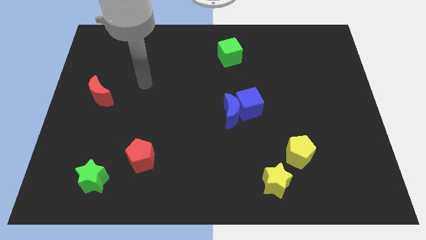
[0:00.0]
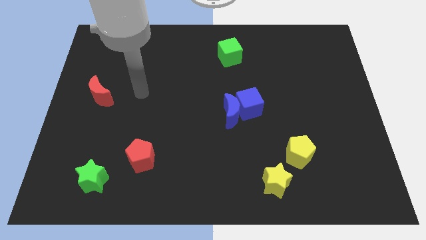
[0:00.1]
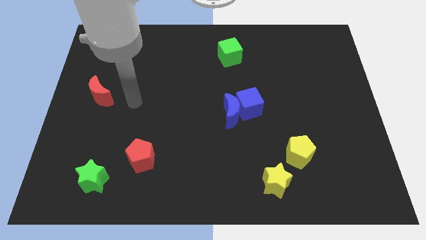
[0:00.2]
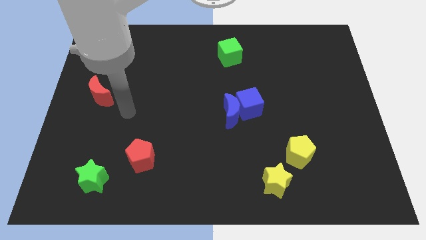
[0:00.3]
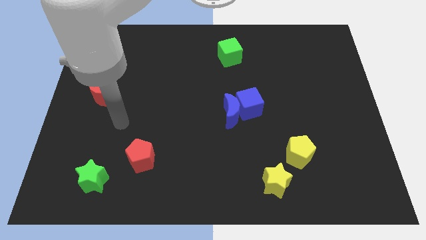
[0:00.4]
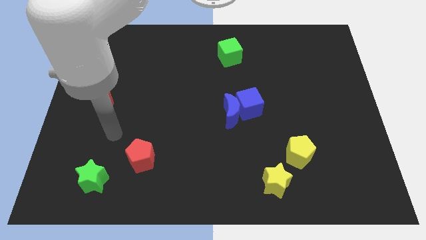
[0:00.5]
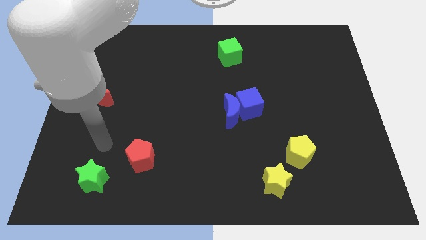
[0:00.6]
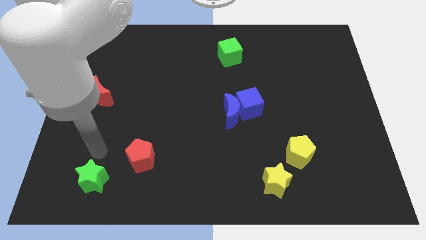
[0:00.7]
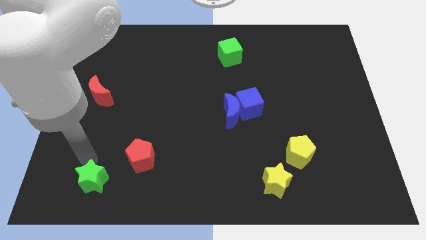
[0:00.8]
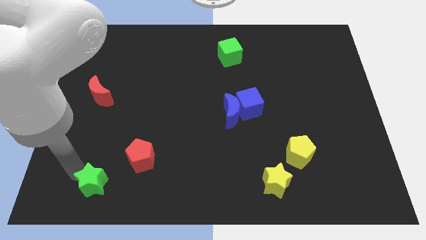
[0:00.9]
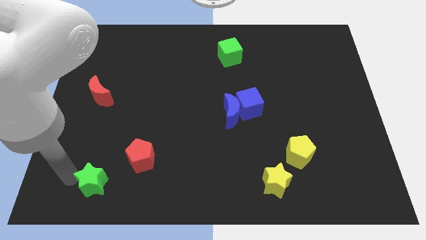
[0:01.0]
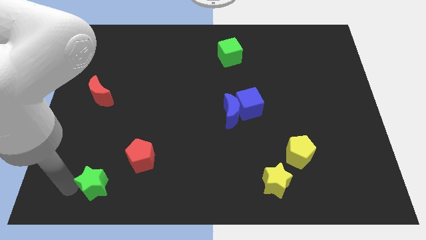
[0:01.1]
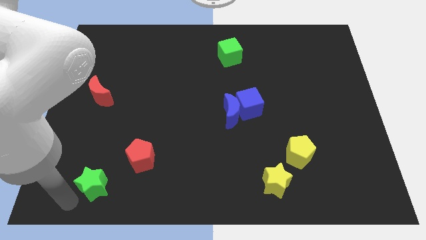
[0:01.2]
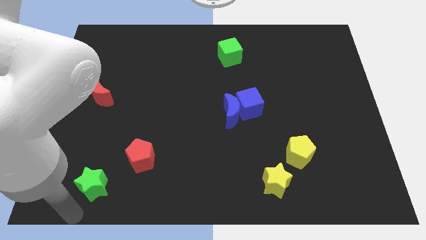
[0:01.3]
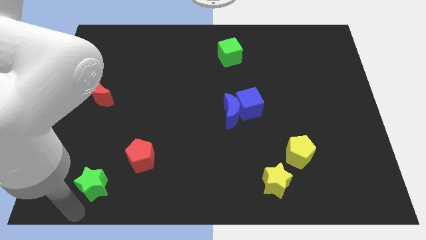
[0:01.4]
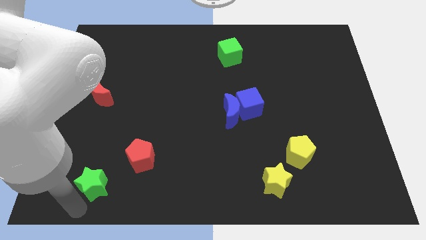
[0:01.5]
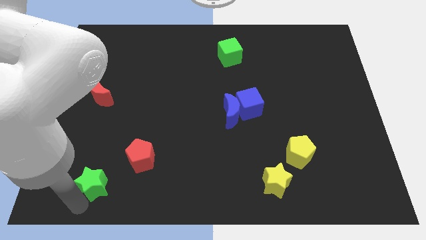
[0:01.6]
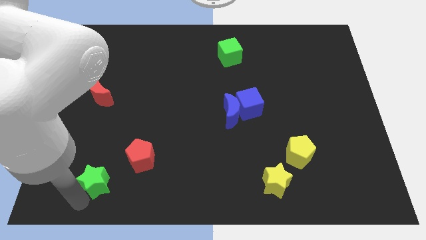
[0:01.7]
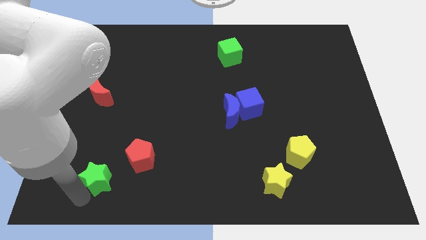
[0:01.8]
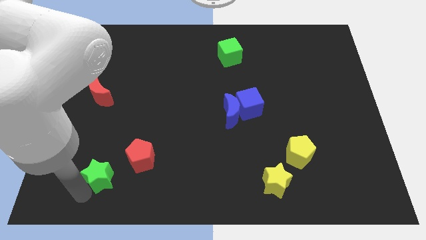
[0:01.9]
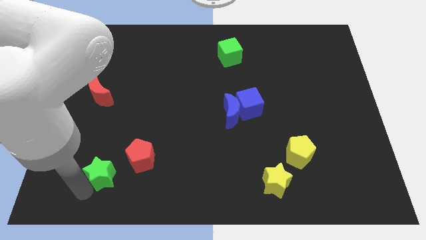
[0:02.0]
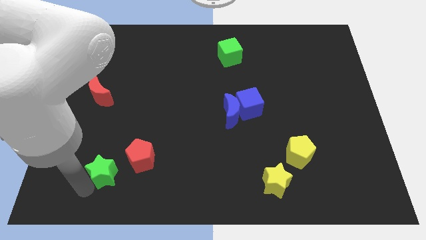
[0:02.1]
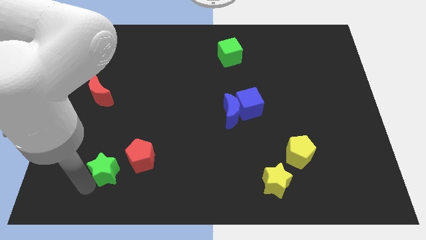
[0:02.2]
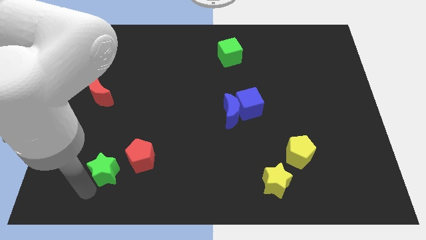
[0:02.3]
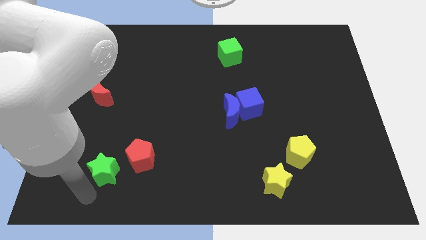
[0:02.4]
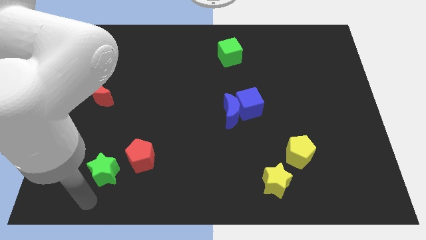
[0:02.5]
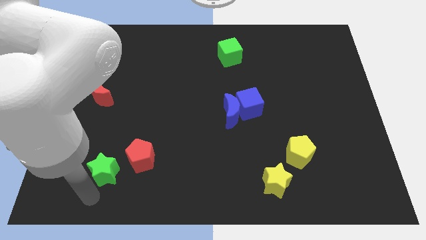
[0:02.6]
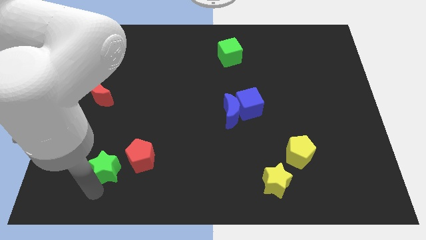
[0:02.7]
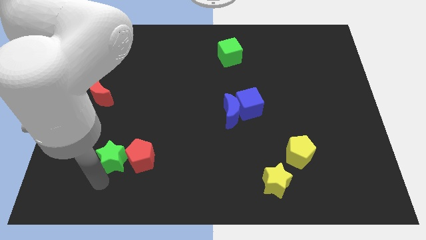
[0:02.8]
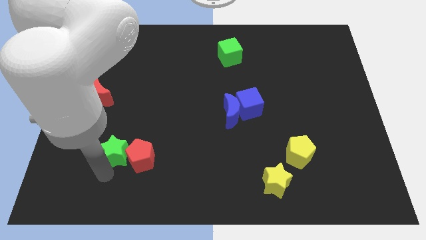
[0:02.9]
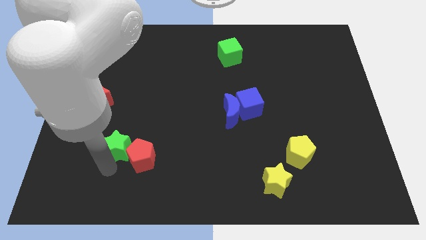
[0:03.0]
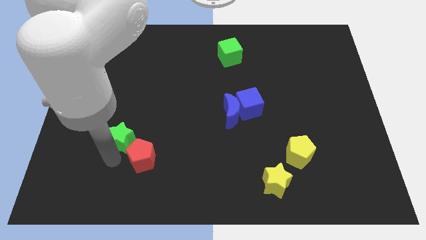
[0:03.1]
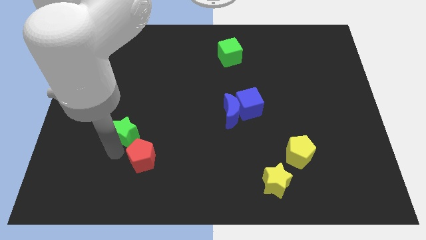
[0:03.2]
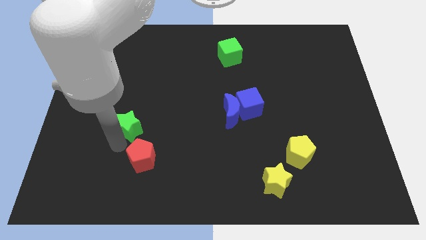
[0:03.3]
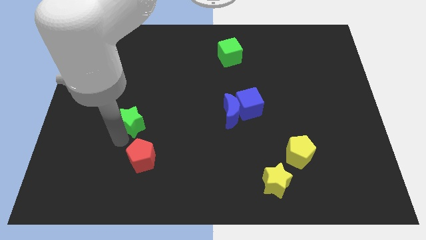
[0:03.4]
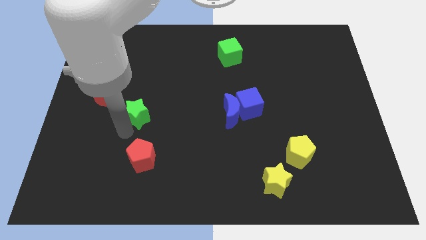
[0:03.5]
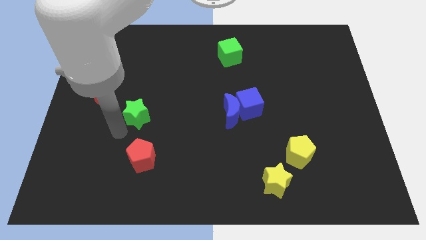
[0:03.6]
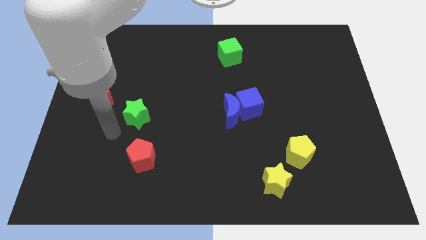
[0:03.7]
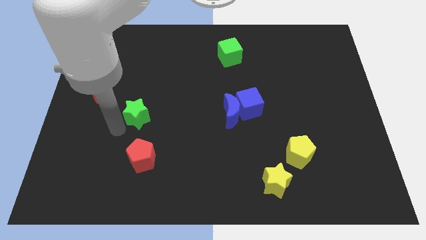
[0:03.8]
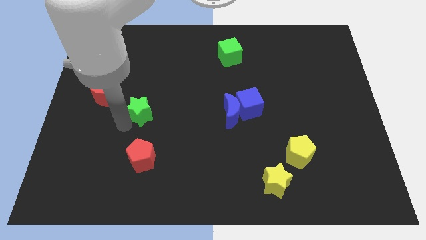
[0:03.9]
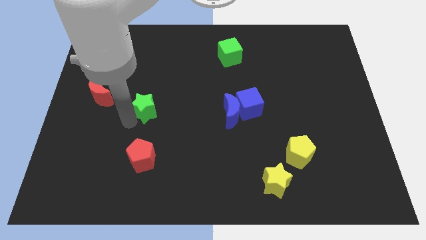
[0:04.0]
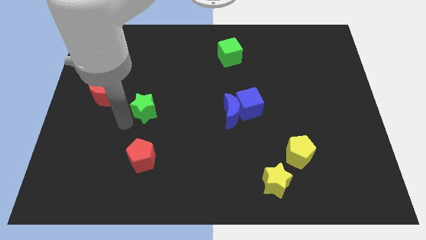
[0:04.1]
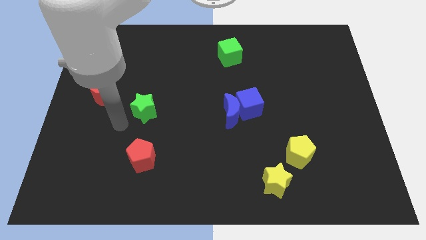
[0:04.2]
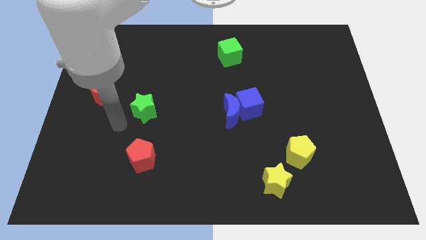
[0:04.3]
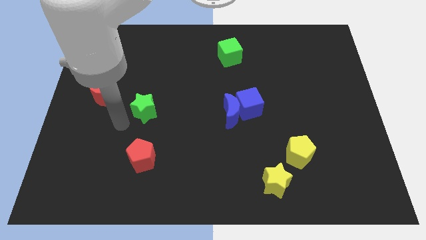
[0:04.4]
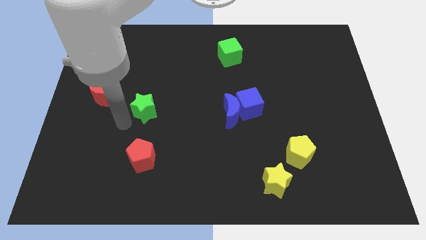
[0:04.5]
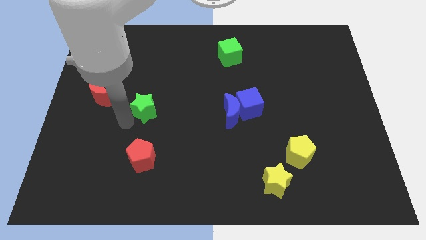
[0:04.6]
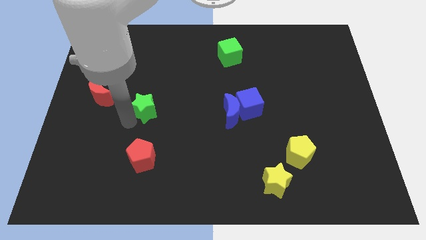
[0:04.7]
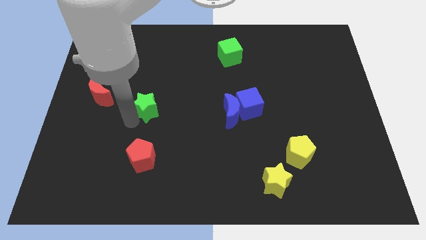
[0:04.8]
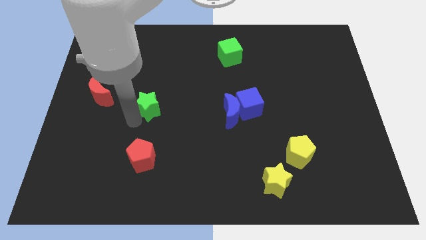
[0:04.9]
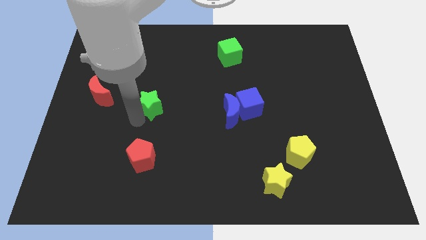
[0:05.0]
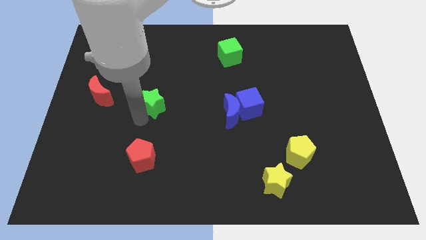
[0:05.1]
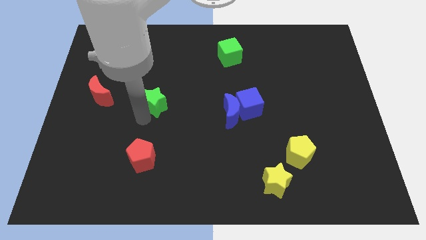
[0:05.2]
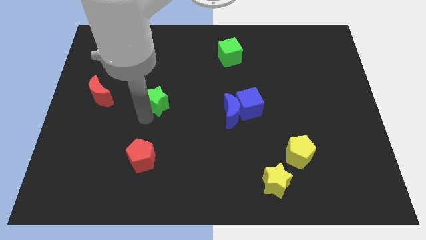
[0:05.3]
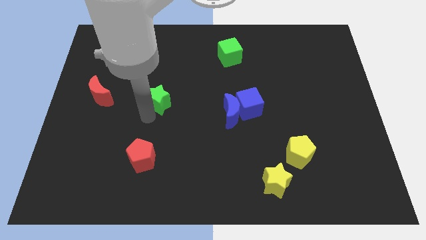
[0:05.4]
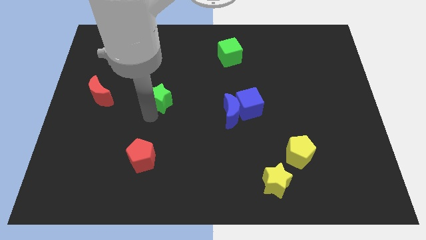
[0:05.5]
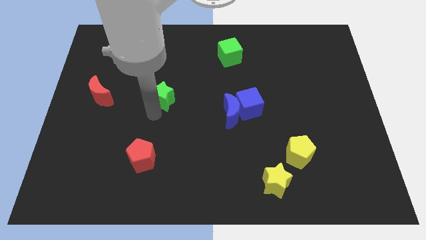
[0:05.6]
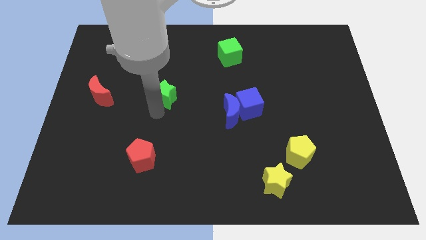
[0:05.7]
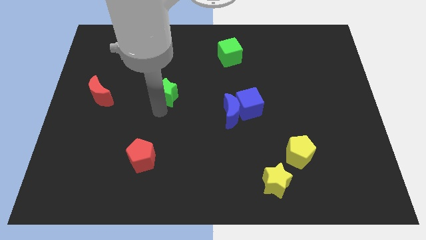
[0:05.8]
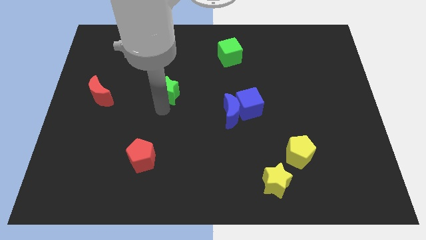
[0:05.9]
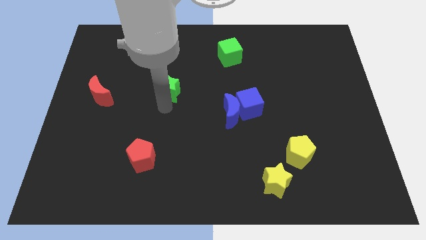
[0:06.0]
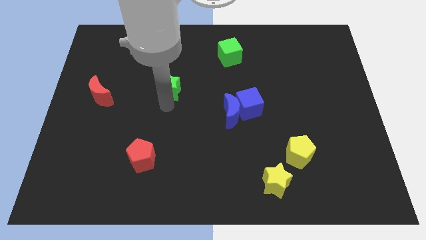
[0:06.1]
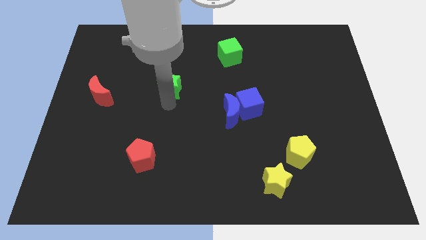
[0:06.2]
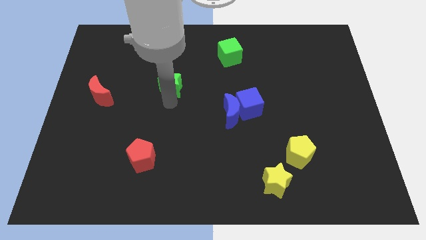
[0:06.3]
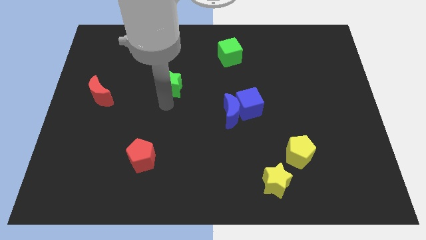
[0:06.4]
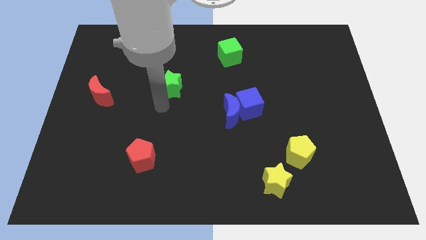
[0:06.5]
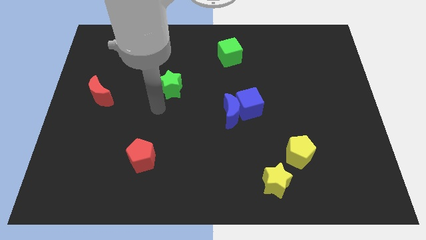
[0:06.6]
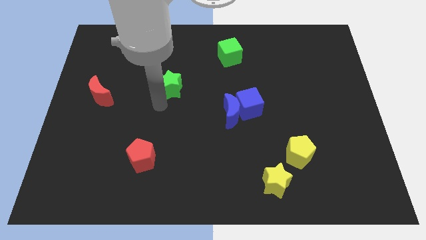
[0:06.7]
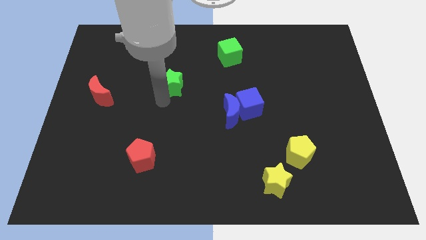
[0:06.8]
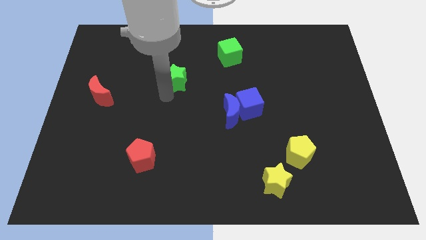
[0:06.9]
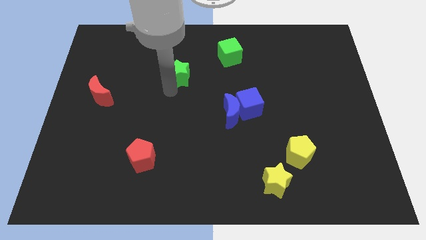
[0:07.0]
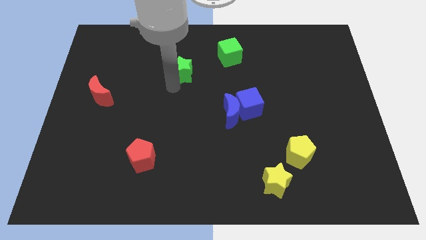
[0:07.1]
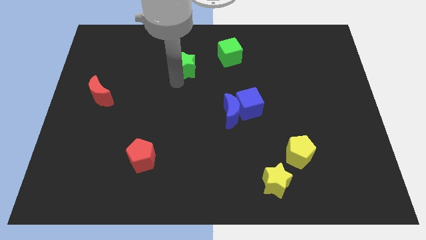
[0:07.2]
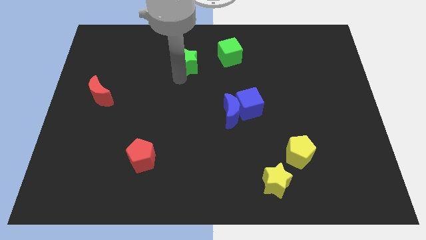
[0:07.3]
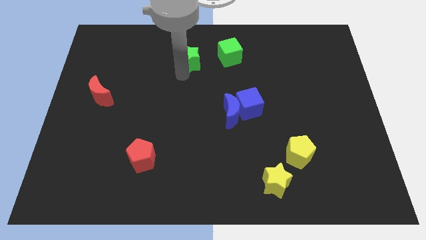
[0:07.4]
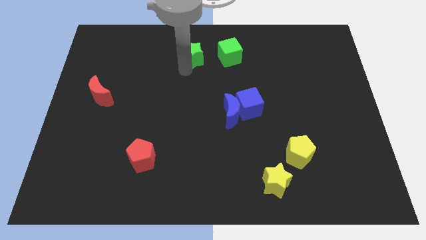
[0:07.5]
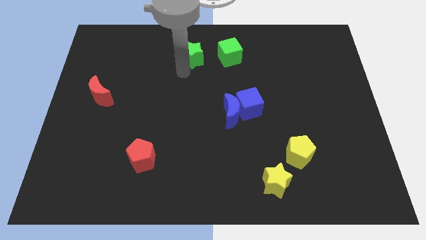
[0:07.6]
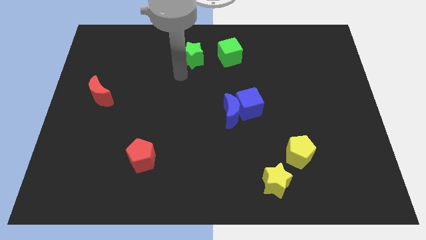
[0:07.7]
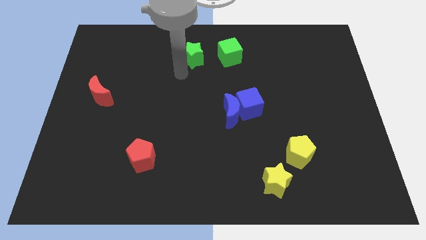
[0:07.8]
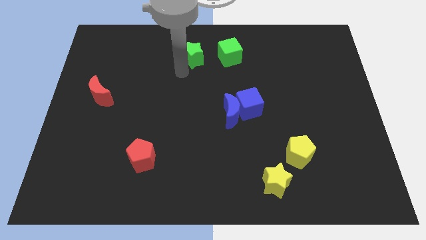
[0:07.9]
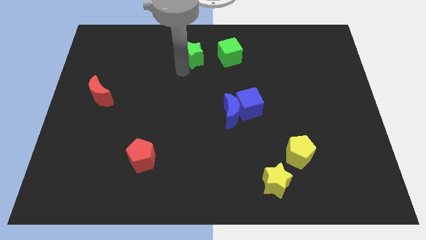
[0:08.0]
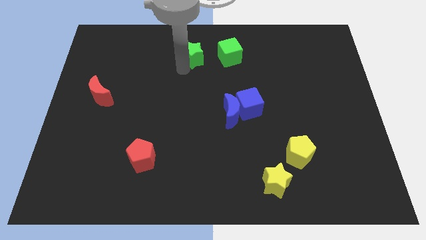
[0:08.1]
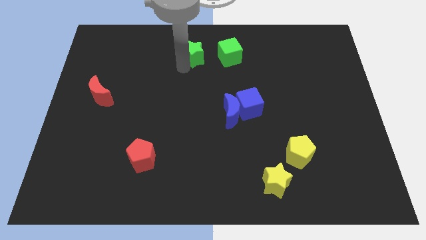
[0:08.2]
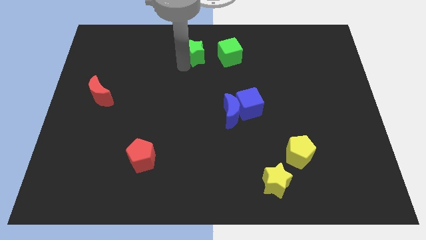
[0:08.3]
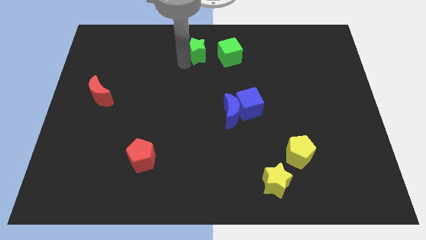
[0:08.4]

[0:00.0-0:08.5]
put the green star to the top
